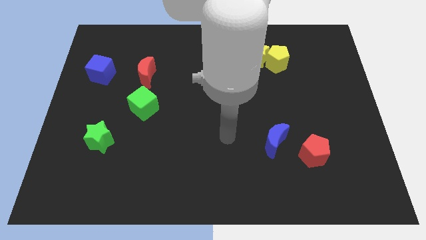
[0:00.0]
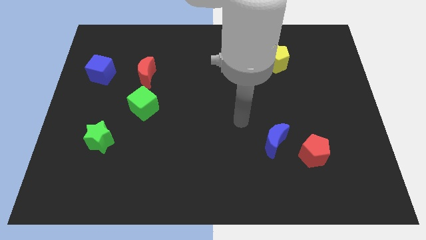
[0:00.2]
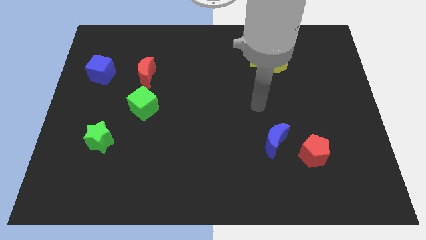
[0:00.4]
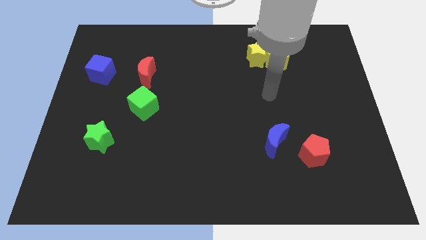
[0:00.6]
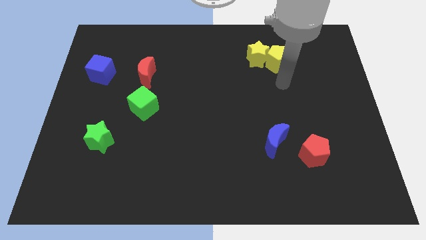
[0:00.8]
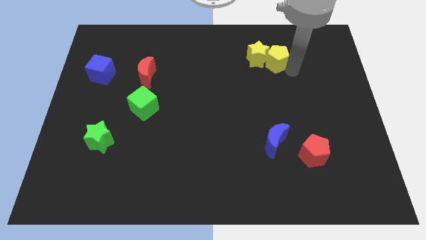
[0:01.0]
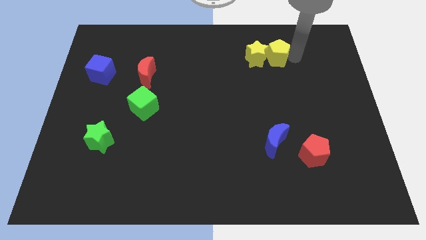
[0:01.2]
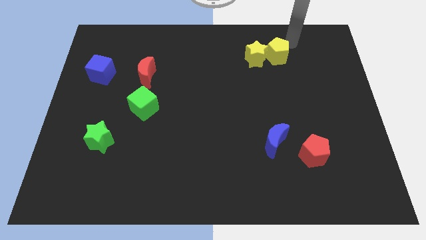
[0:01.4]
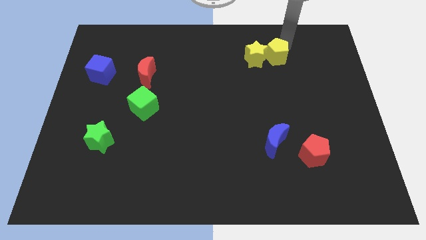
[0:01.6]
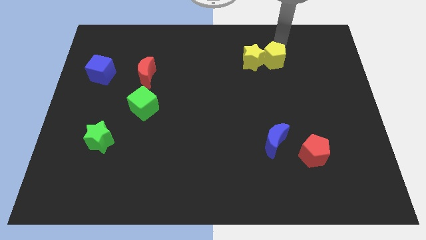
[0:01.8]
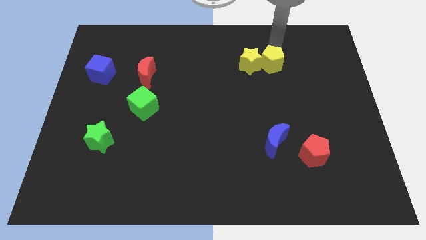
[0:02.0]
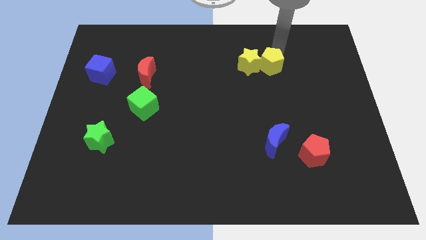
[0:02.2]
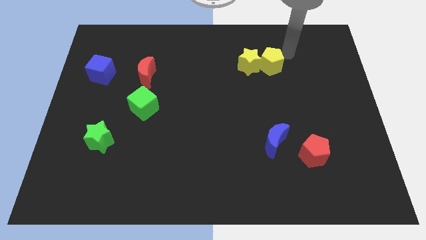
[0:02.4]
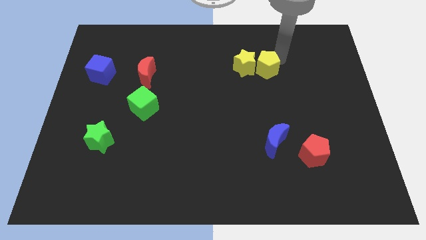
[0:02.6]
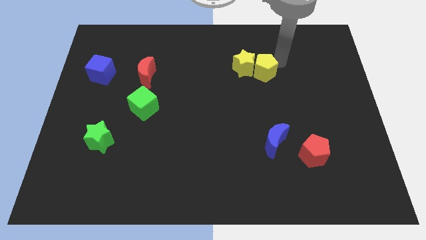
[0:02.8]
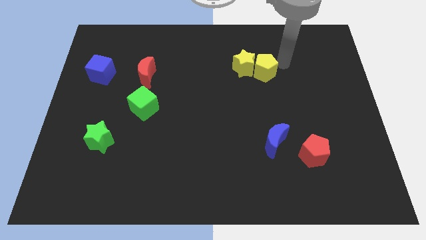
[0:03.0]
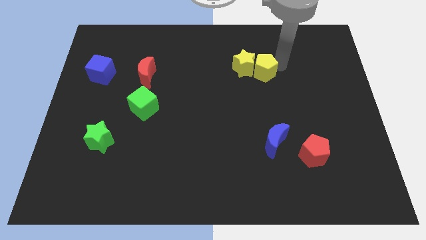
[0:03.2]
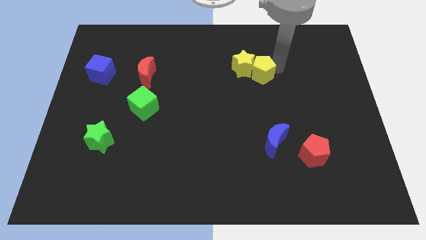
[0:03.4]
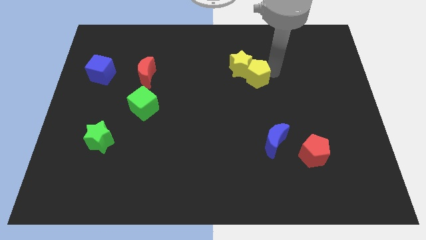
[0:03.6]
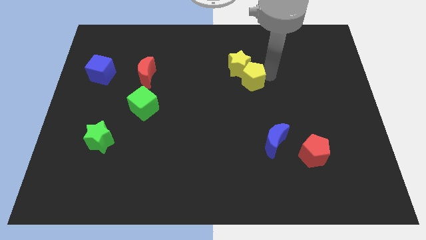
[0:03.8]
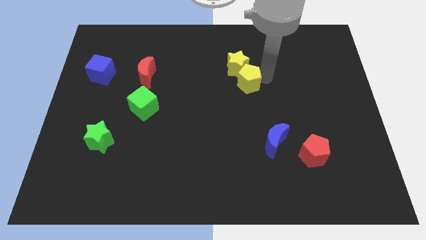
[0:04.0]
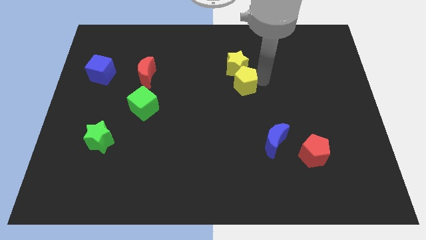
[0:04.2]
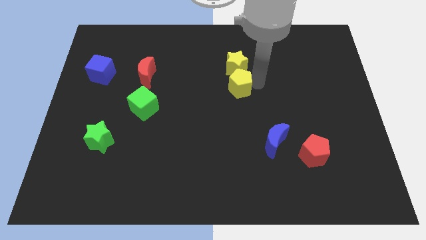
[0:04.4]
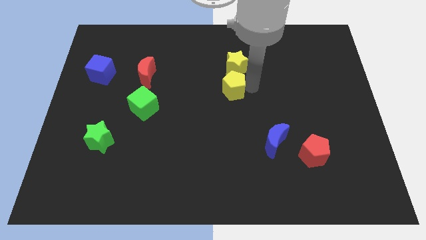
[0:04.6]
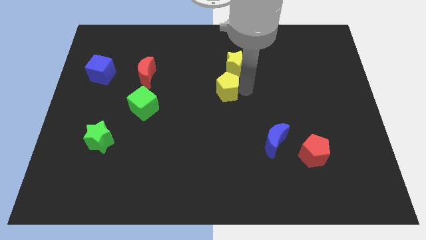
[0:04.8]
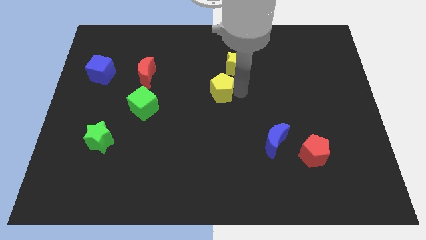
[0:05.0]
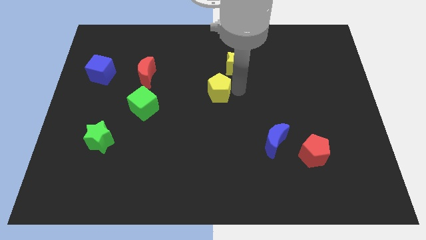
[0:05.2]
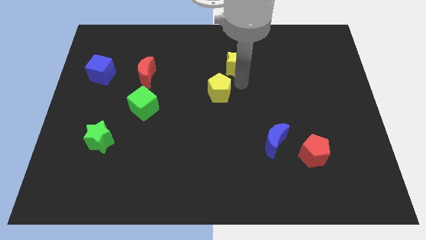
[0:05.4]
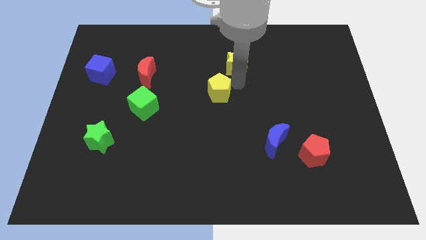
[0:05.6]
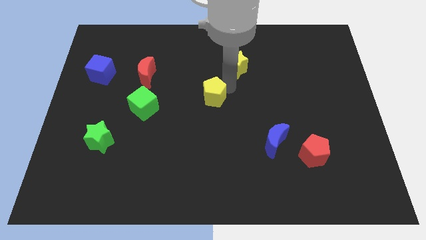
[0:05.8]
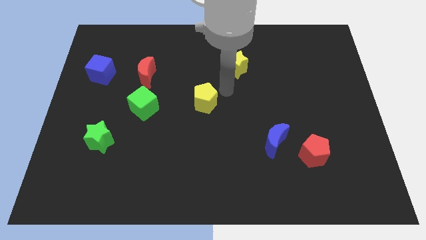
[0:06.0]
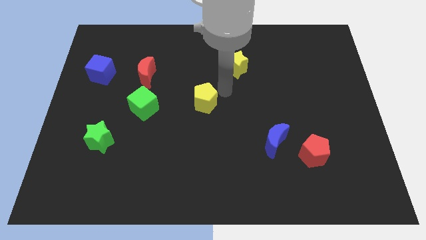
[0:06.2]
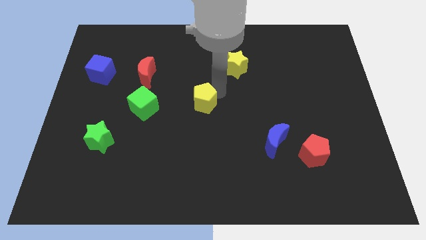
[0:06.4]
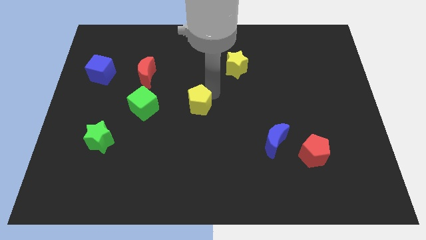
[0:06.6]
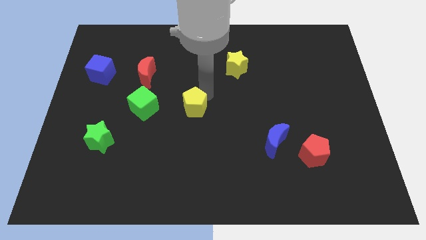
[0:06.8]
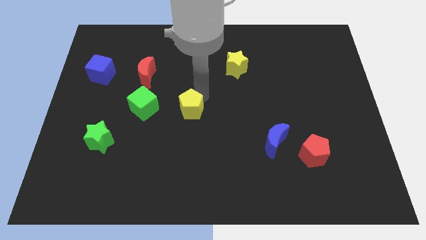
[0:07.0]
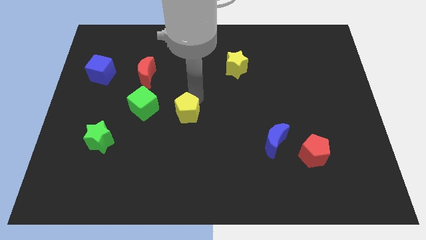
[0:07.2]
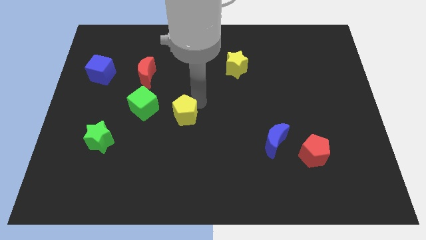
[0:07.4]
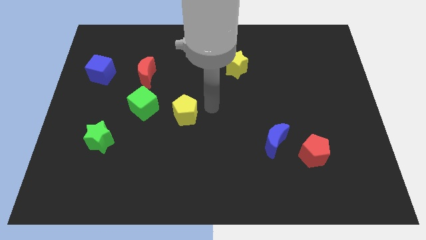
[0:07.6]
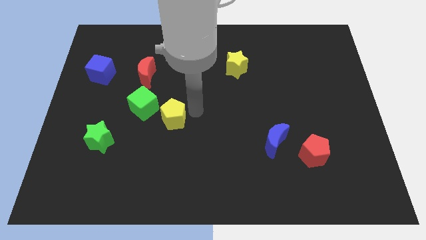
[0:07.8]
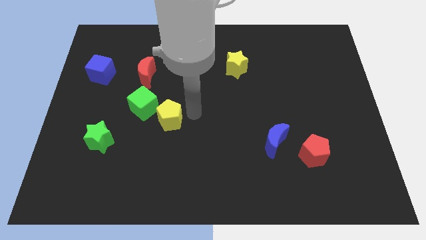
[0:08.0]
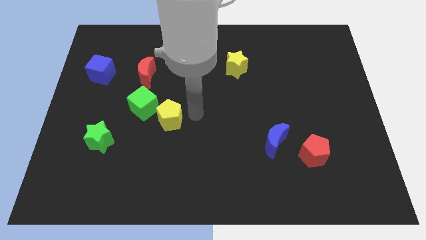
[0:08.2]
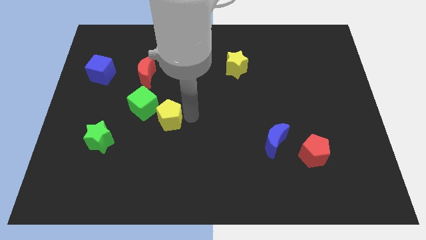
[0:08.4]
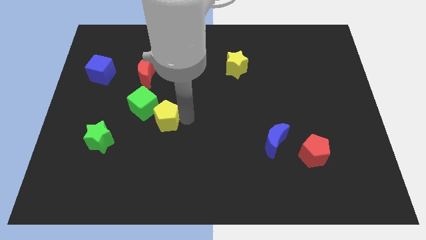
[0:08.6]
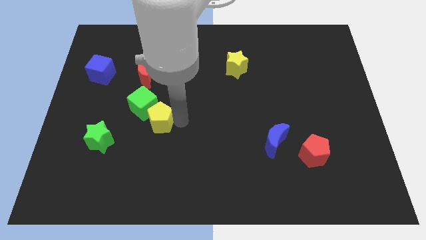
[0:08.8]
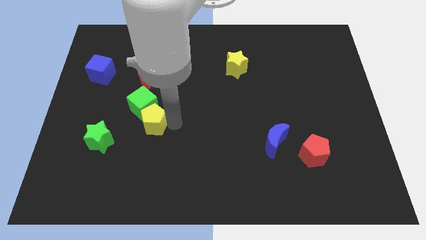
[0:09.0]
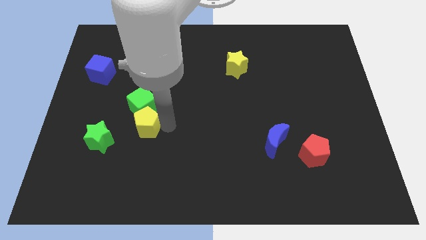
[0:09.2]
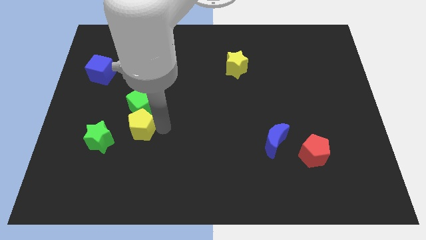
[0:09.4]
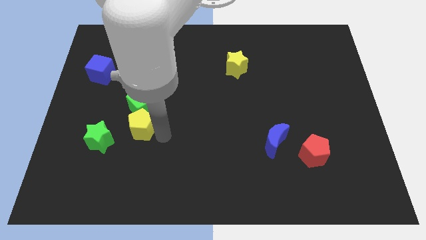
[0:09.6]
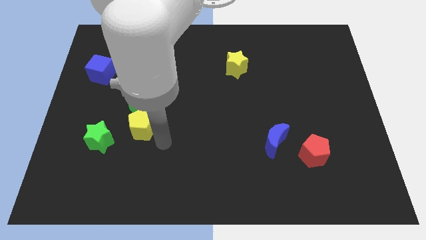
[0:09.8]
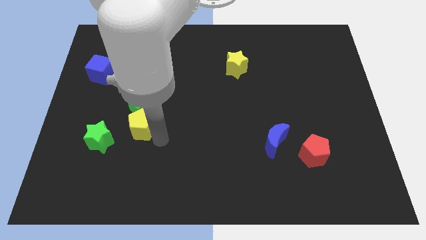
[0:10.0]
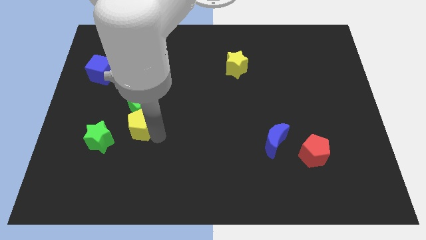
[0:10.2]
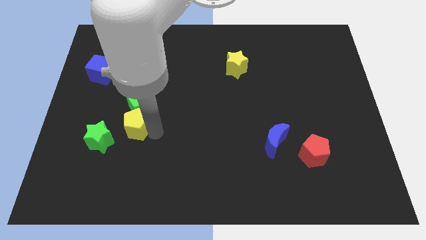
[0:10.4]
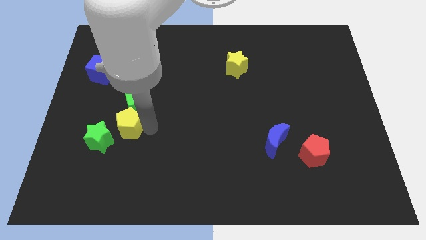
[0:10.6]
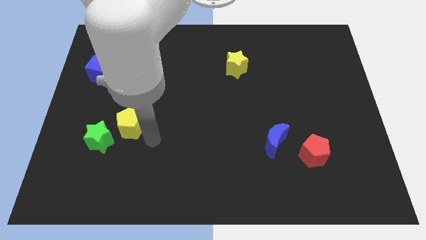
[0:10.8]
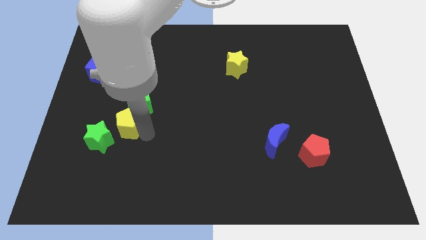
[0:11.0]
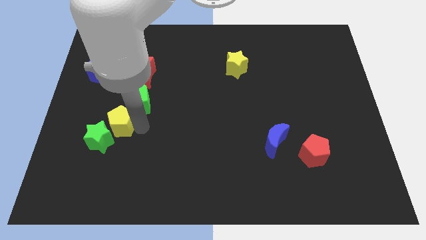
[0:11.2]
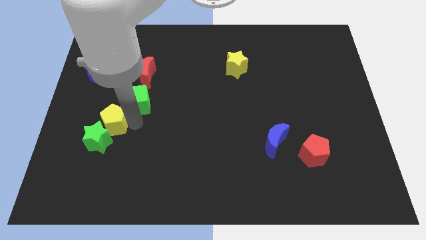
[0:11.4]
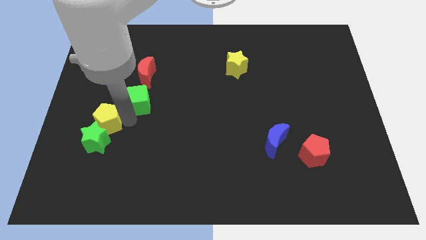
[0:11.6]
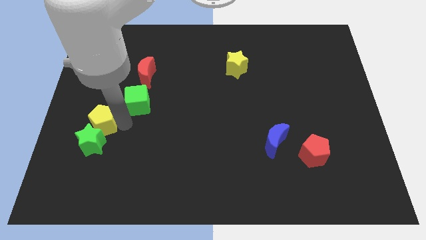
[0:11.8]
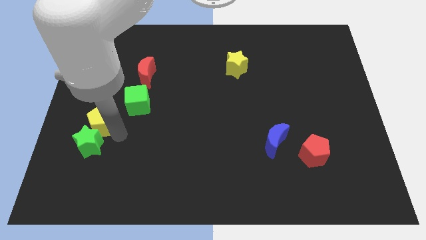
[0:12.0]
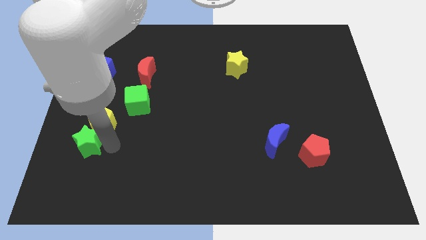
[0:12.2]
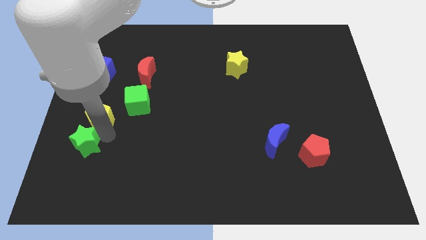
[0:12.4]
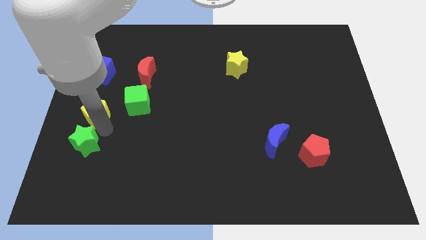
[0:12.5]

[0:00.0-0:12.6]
slide the yellow pentagon to the left of the green cube

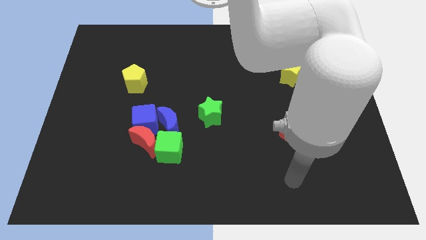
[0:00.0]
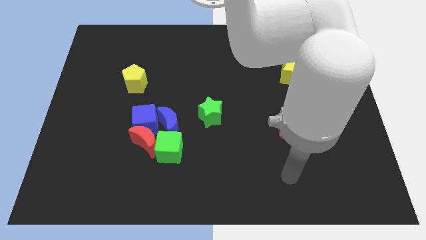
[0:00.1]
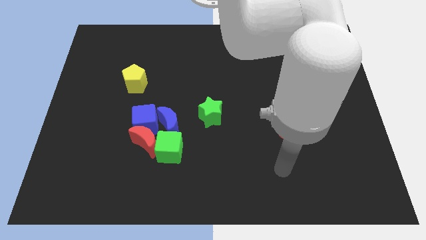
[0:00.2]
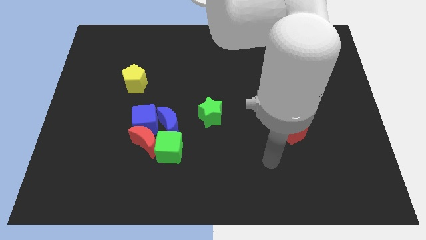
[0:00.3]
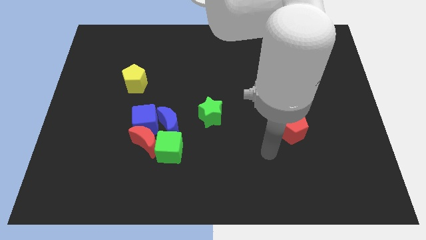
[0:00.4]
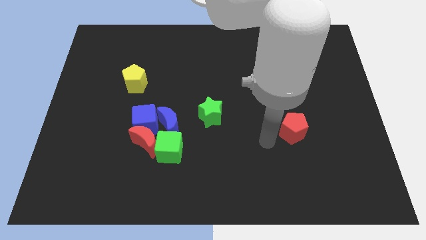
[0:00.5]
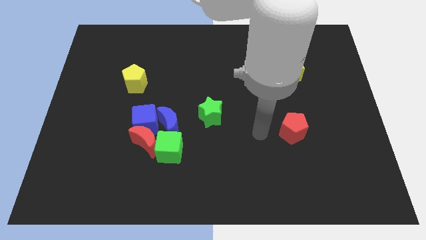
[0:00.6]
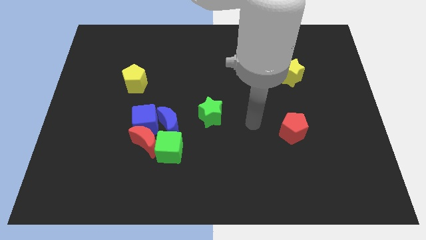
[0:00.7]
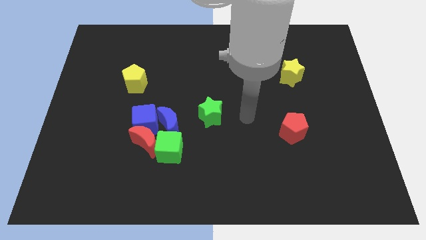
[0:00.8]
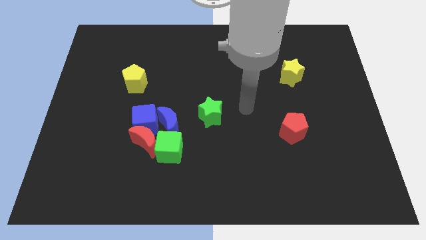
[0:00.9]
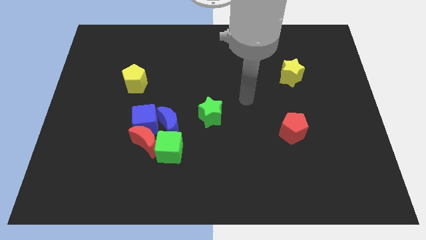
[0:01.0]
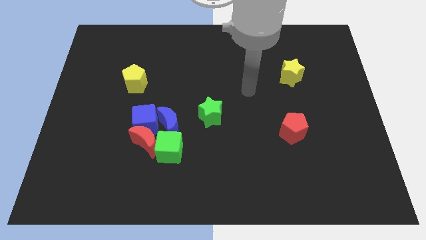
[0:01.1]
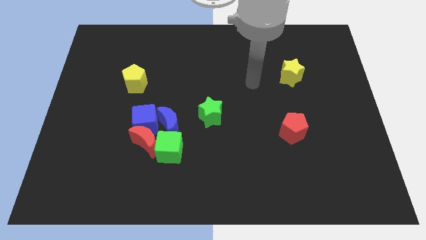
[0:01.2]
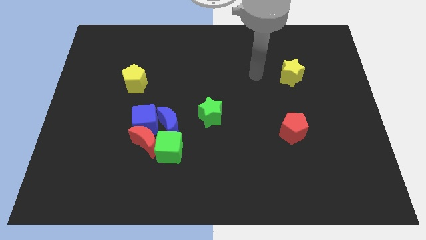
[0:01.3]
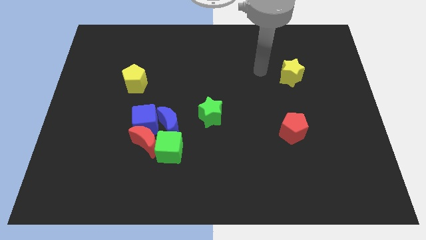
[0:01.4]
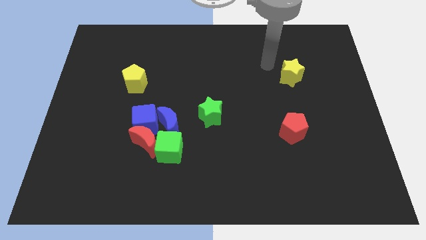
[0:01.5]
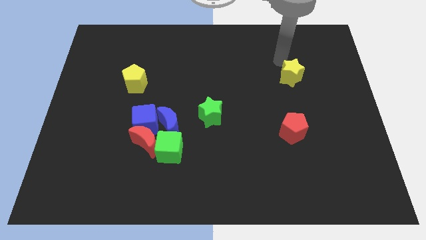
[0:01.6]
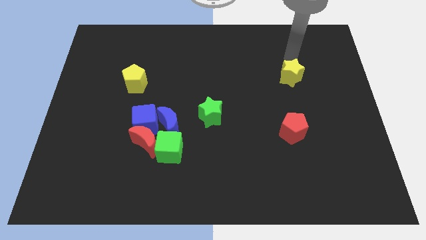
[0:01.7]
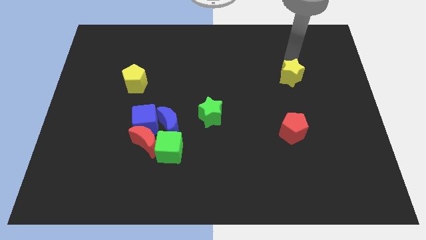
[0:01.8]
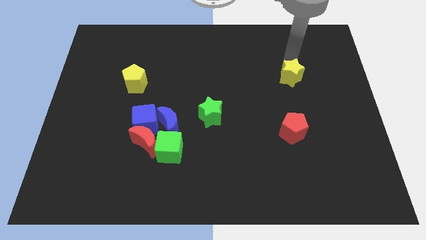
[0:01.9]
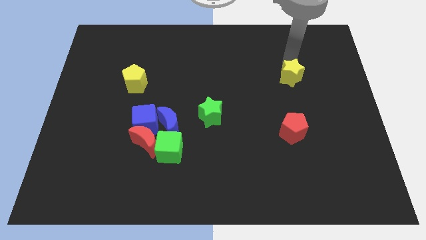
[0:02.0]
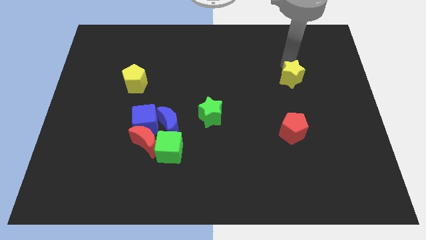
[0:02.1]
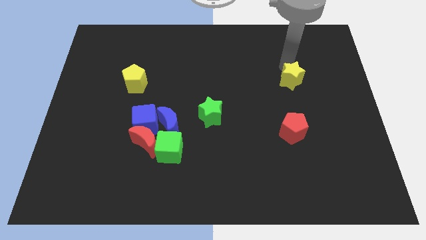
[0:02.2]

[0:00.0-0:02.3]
put the yellow star to the top side of the red pentagon
